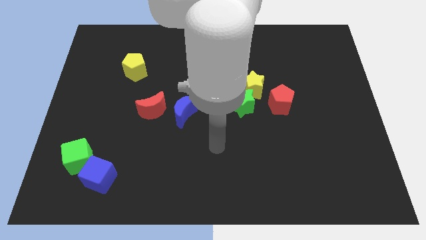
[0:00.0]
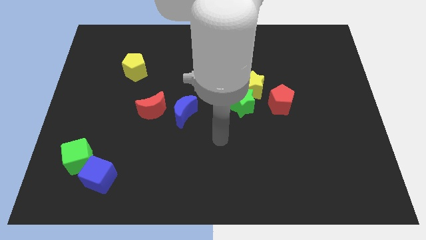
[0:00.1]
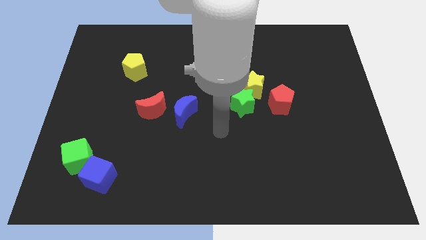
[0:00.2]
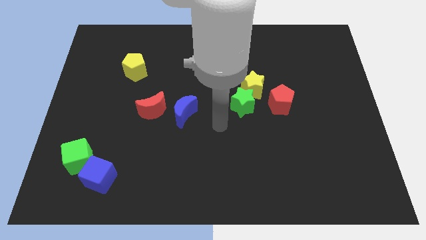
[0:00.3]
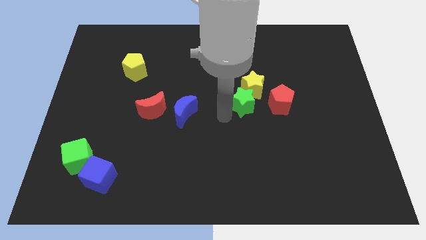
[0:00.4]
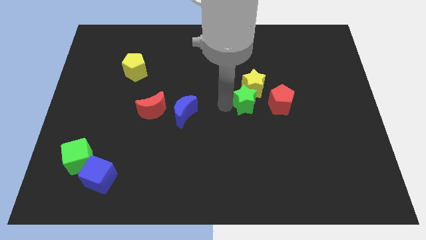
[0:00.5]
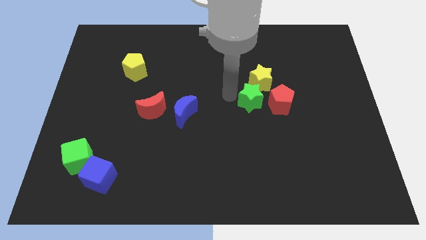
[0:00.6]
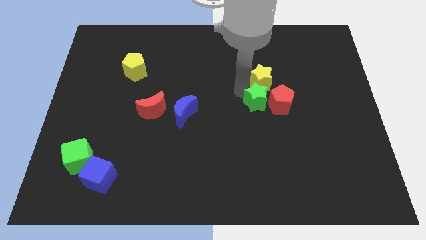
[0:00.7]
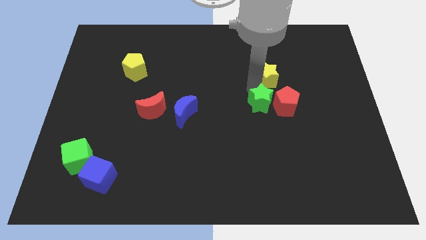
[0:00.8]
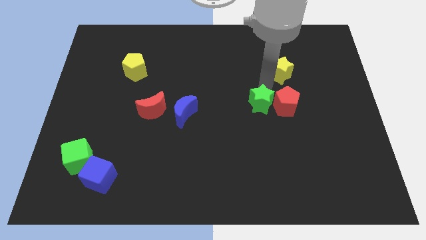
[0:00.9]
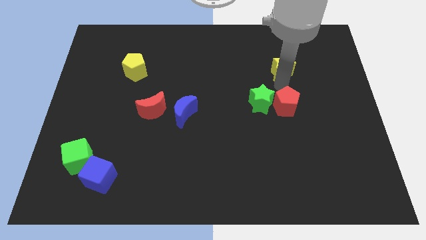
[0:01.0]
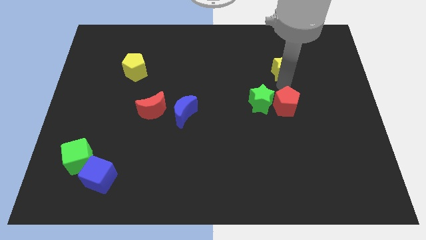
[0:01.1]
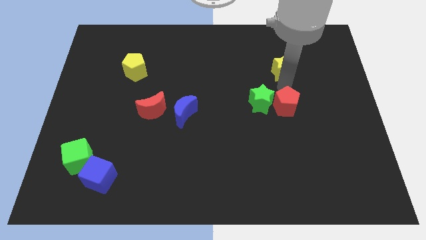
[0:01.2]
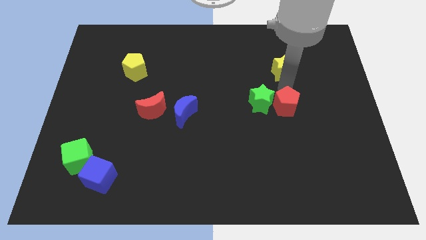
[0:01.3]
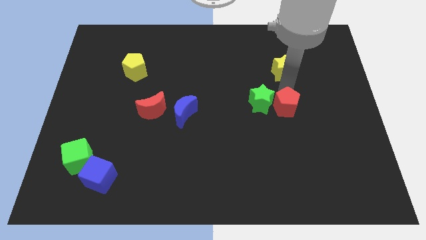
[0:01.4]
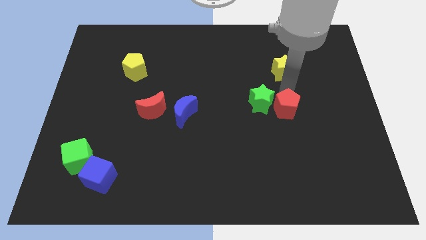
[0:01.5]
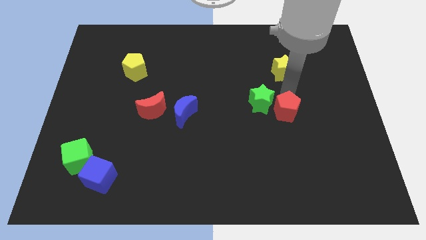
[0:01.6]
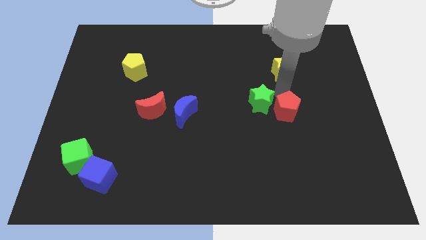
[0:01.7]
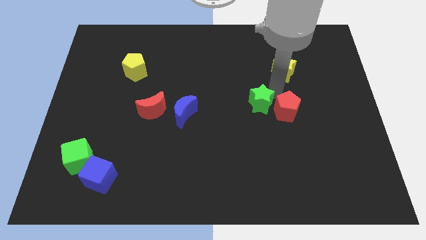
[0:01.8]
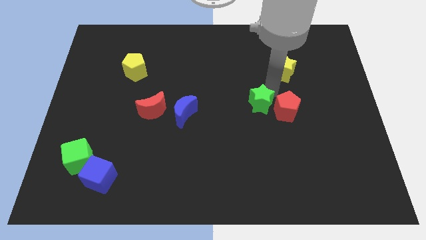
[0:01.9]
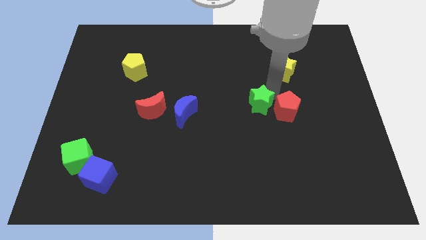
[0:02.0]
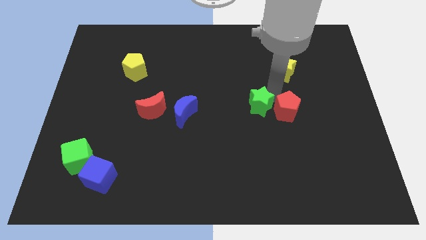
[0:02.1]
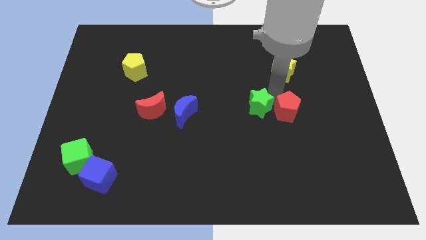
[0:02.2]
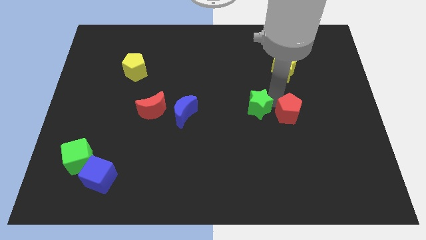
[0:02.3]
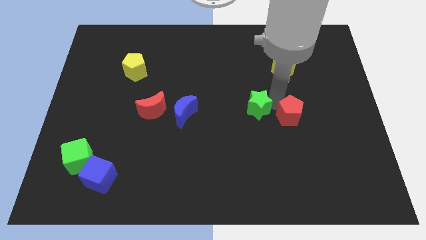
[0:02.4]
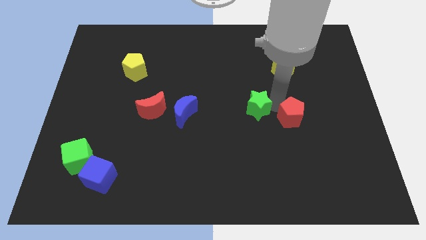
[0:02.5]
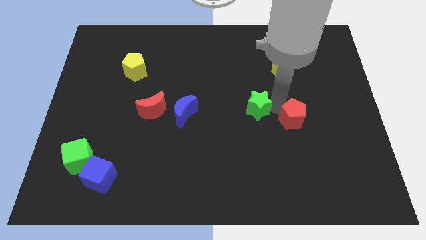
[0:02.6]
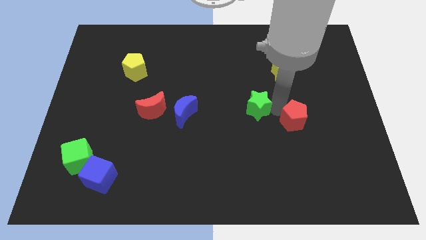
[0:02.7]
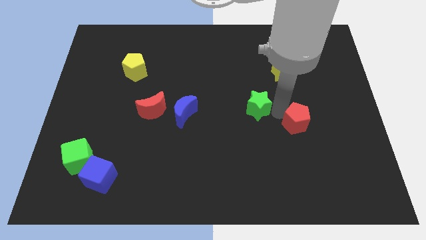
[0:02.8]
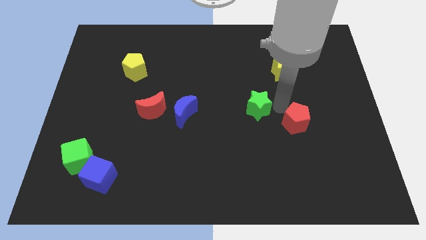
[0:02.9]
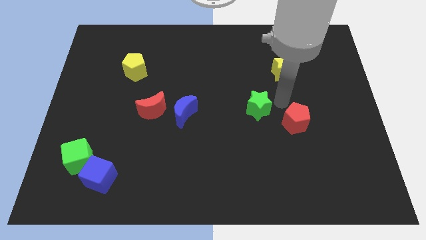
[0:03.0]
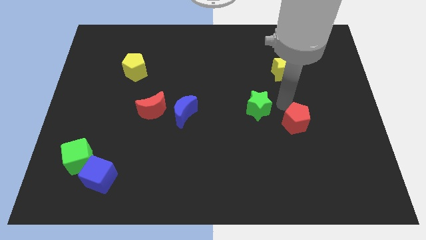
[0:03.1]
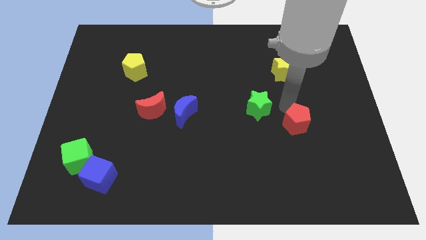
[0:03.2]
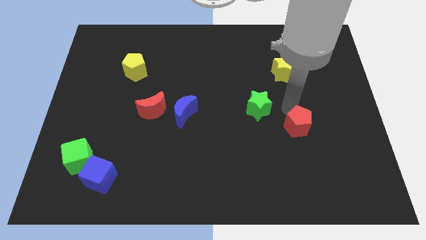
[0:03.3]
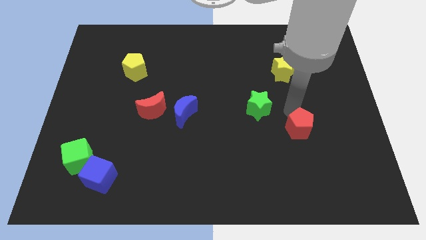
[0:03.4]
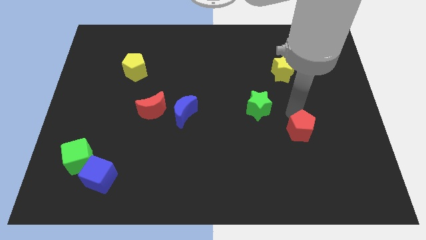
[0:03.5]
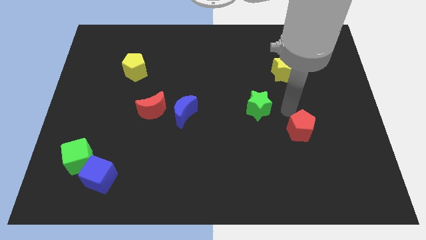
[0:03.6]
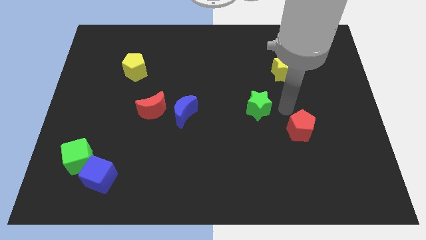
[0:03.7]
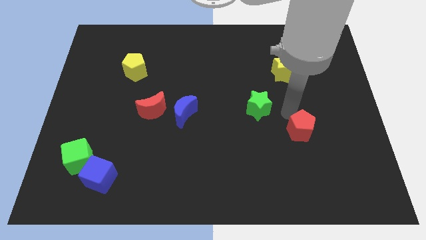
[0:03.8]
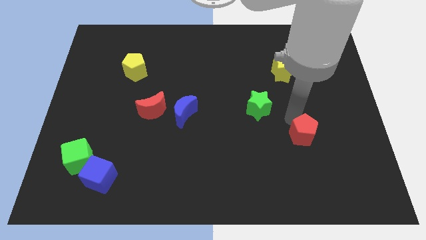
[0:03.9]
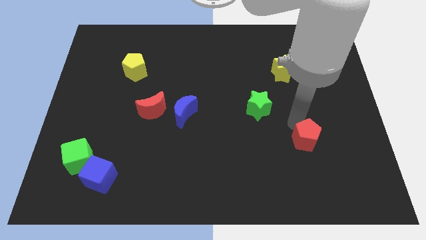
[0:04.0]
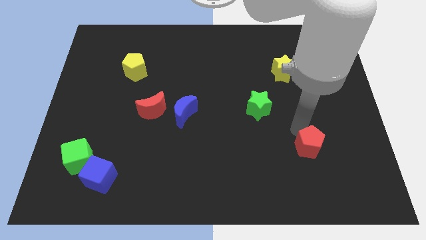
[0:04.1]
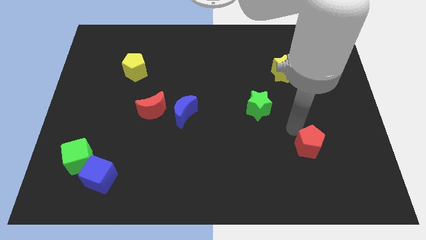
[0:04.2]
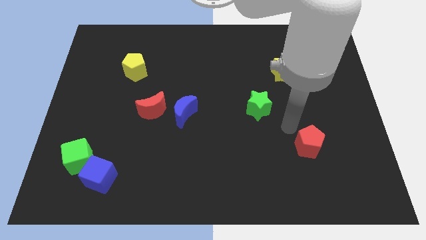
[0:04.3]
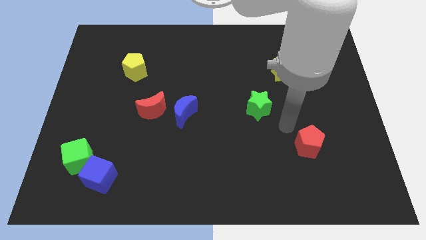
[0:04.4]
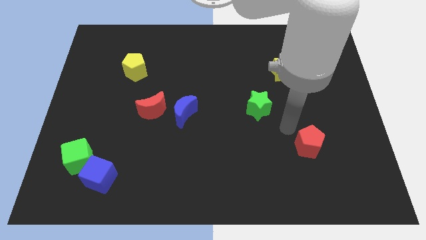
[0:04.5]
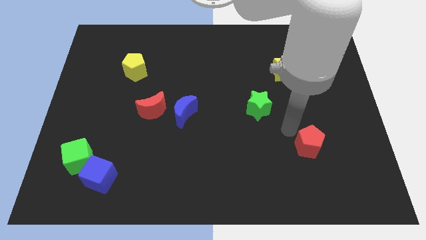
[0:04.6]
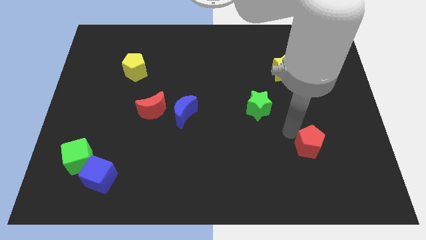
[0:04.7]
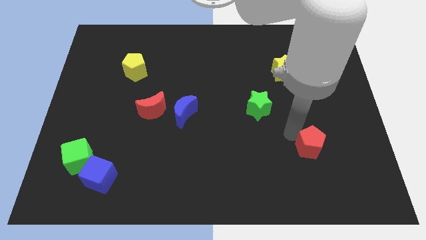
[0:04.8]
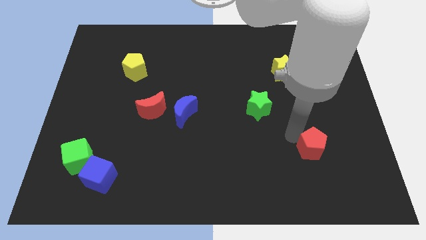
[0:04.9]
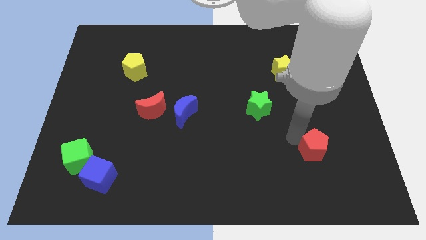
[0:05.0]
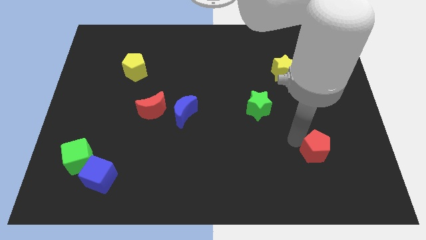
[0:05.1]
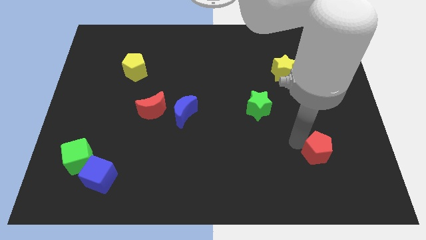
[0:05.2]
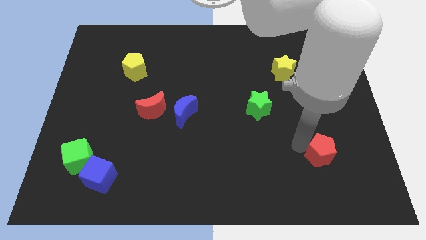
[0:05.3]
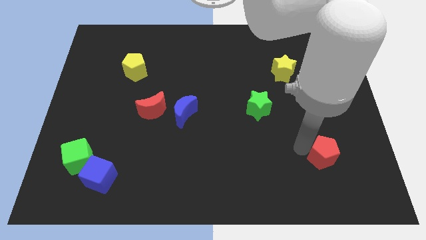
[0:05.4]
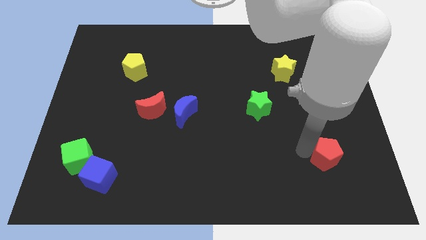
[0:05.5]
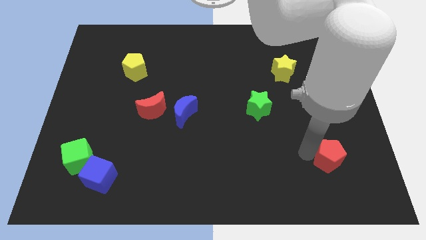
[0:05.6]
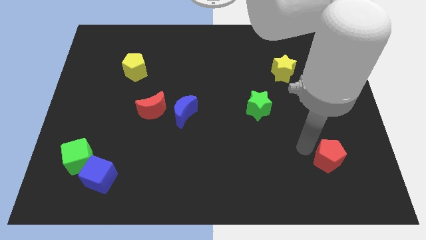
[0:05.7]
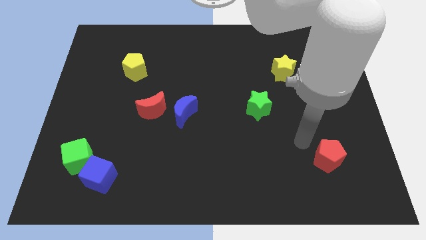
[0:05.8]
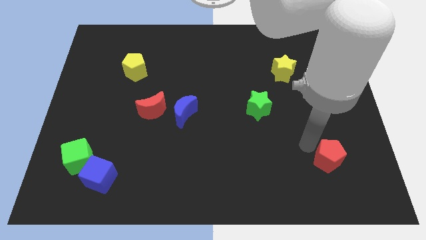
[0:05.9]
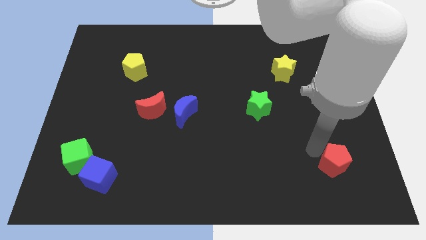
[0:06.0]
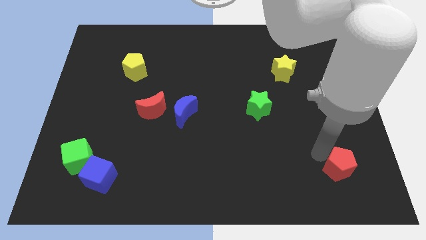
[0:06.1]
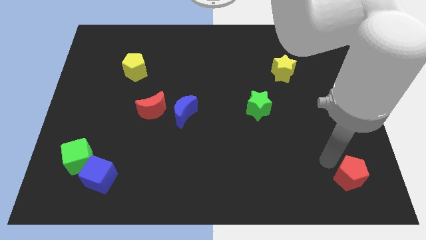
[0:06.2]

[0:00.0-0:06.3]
slide the red pentagon to the bottom right of the board

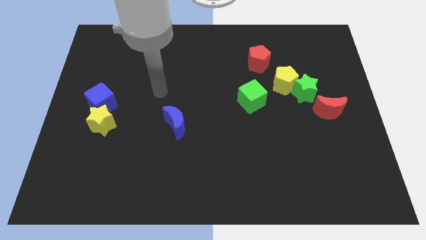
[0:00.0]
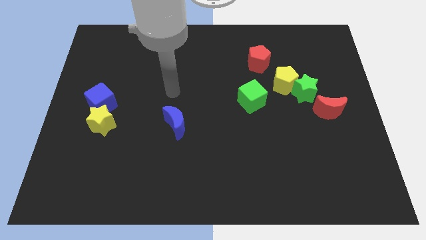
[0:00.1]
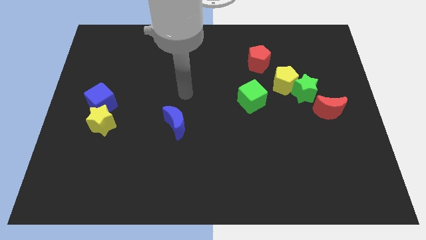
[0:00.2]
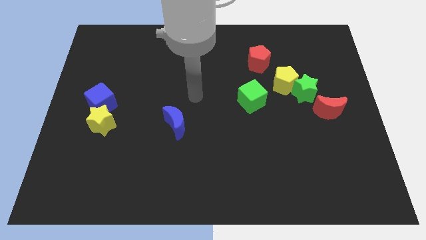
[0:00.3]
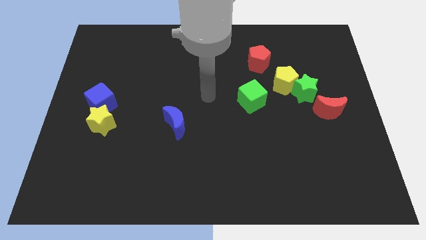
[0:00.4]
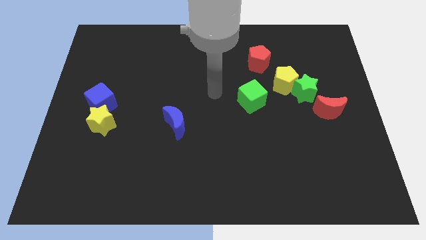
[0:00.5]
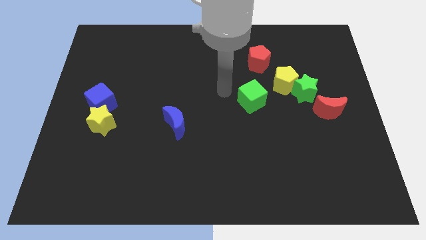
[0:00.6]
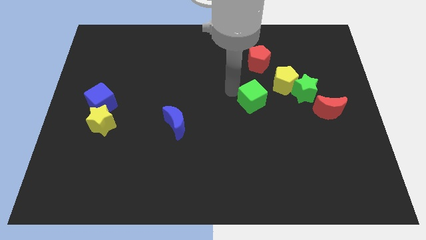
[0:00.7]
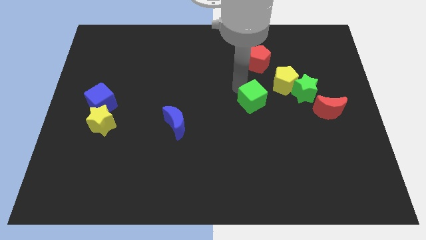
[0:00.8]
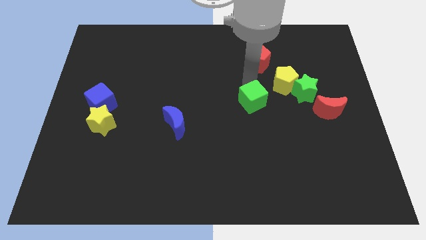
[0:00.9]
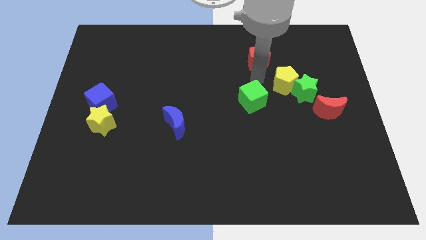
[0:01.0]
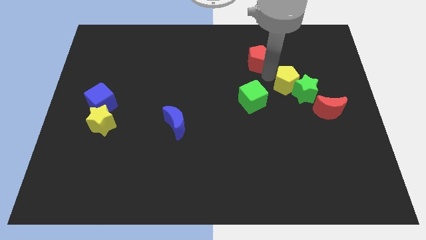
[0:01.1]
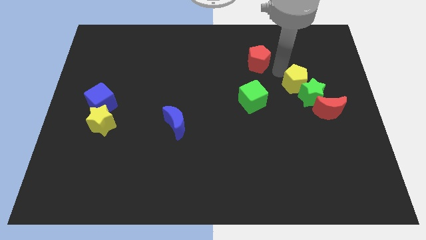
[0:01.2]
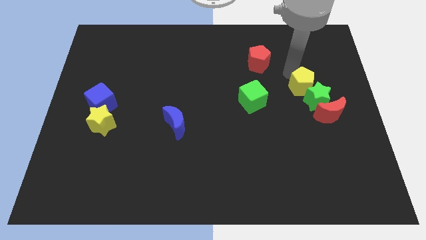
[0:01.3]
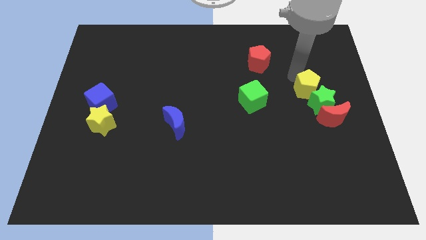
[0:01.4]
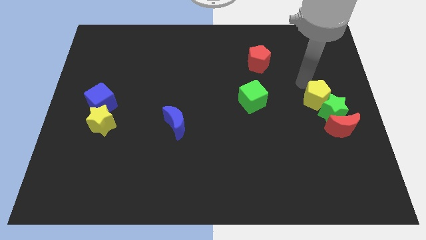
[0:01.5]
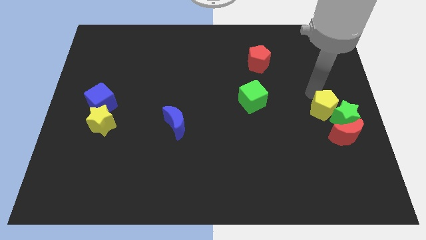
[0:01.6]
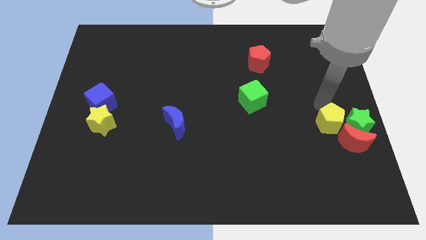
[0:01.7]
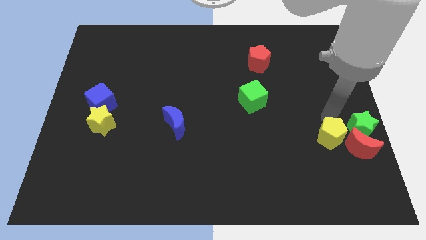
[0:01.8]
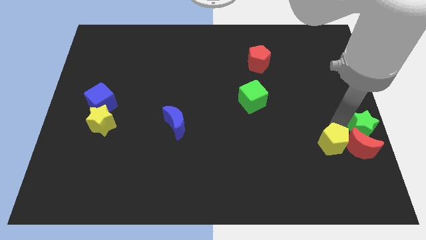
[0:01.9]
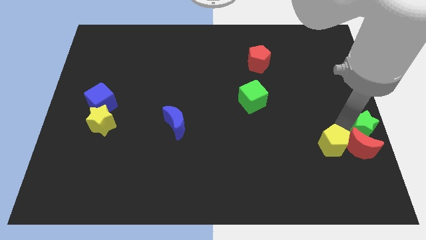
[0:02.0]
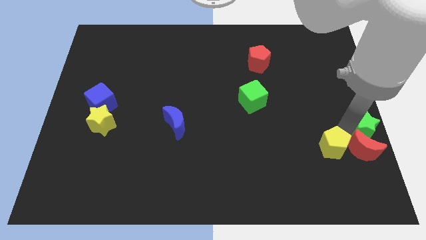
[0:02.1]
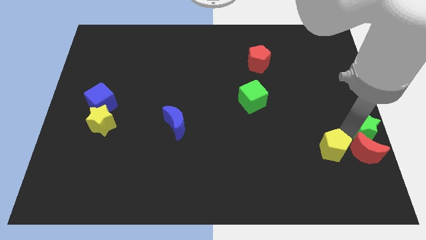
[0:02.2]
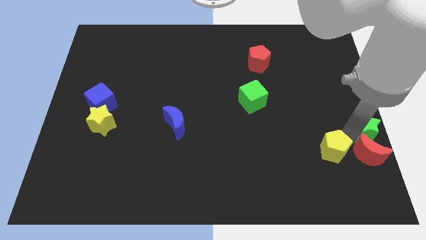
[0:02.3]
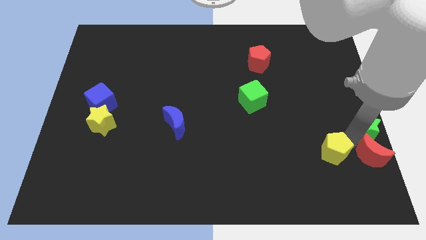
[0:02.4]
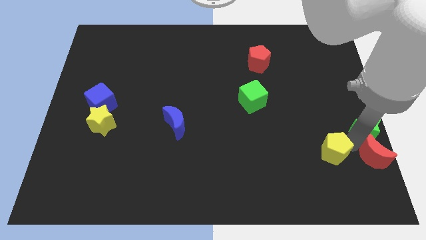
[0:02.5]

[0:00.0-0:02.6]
push the red moon to the bottom right corner
